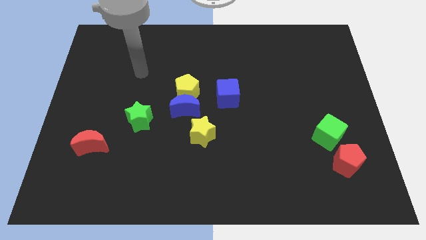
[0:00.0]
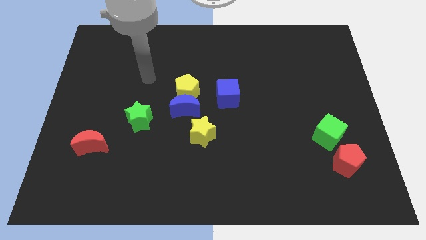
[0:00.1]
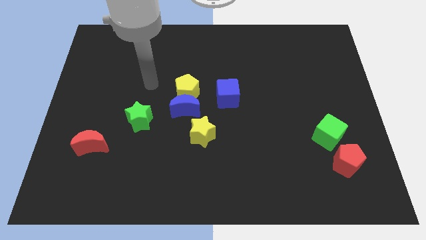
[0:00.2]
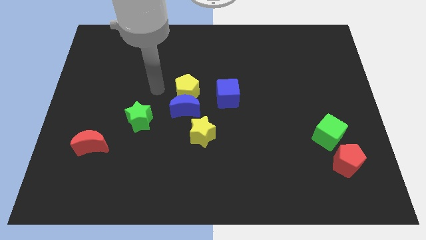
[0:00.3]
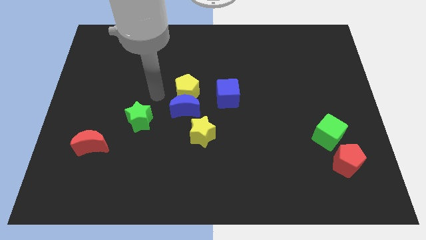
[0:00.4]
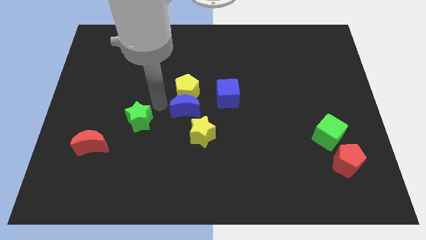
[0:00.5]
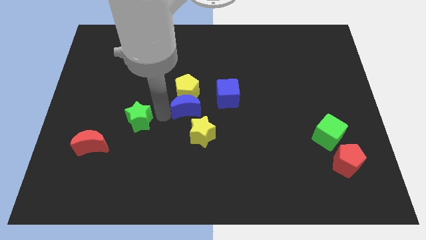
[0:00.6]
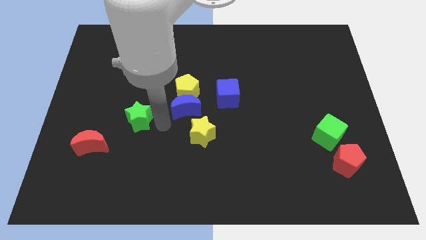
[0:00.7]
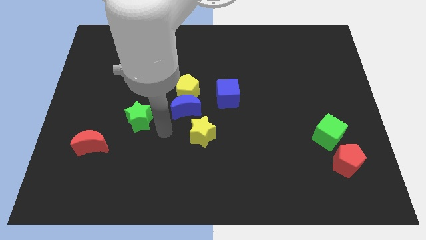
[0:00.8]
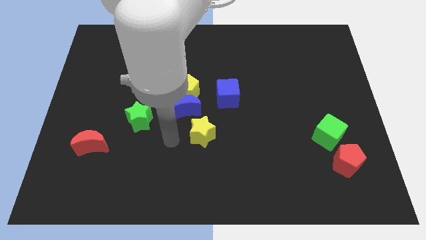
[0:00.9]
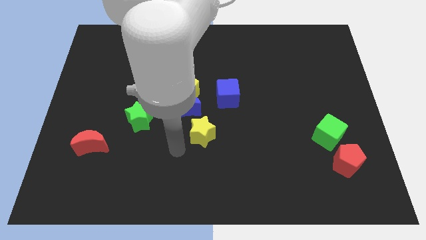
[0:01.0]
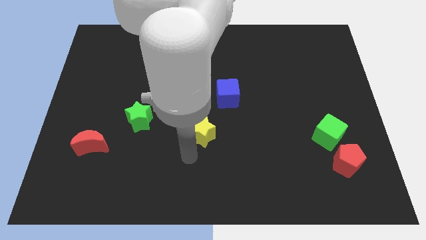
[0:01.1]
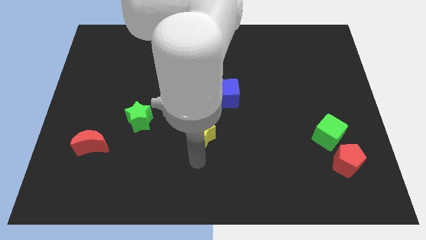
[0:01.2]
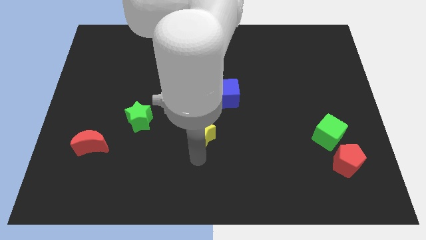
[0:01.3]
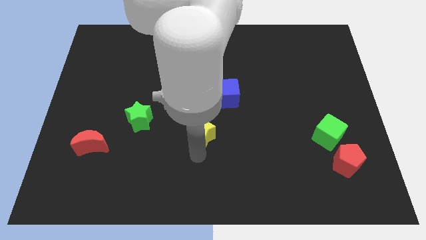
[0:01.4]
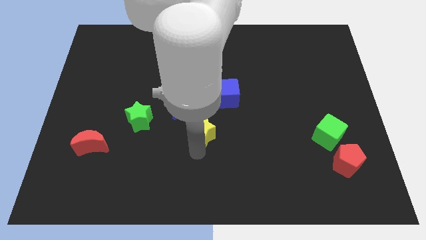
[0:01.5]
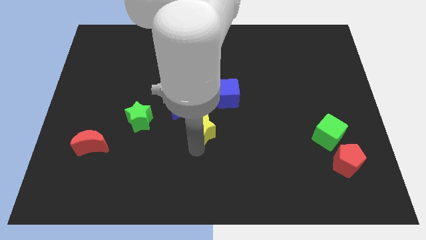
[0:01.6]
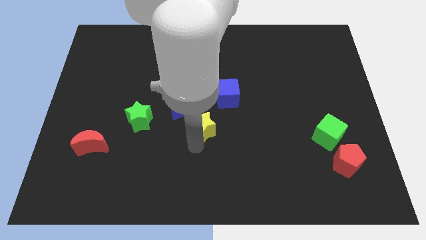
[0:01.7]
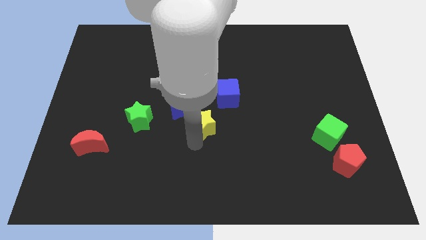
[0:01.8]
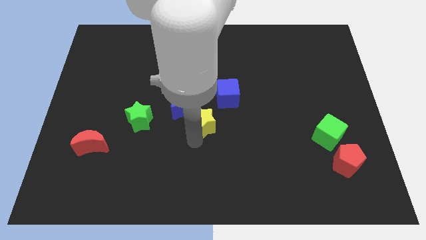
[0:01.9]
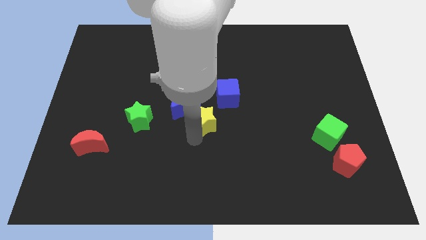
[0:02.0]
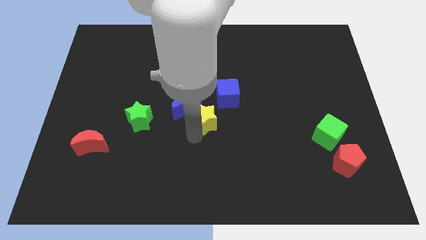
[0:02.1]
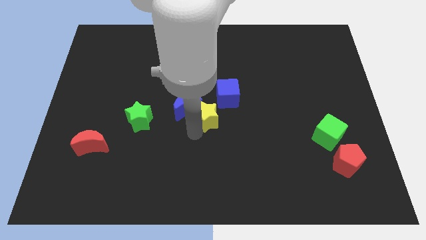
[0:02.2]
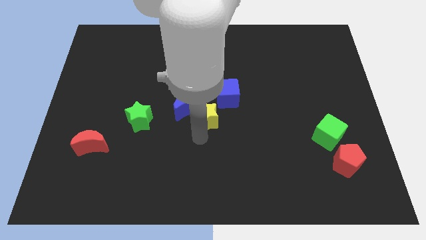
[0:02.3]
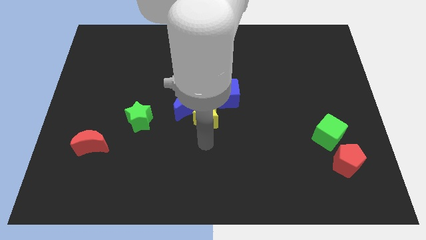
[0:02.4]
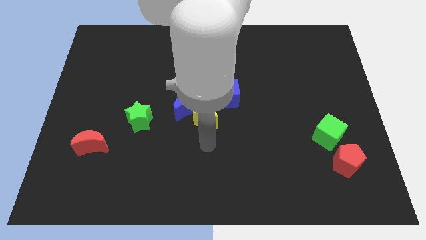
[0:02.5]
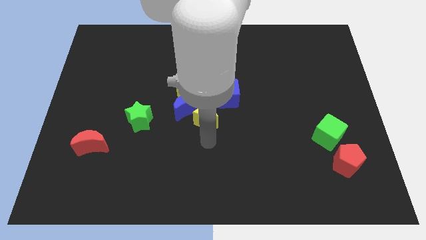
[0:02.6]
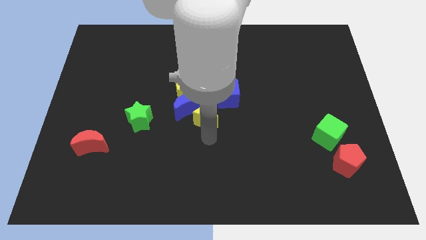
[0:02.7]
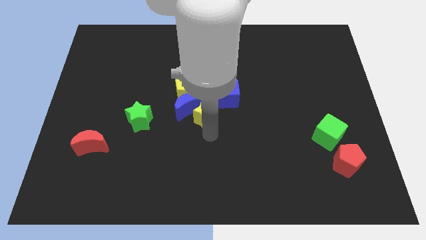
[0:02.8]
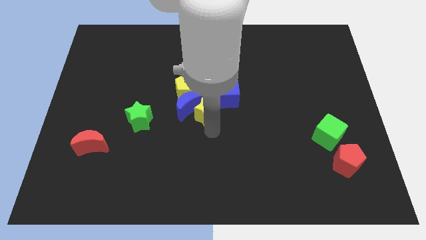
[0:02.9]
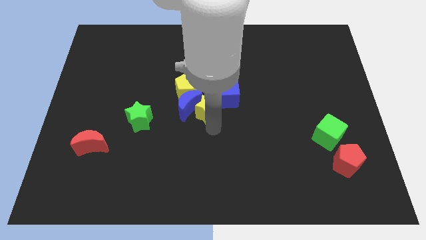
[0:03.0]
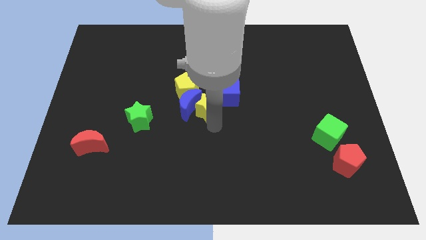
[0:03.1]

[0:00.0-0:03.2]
slide the yellow star upwards a little bit

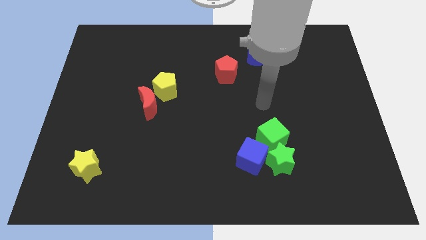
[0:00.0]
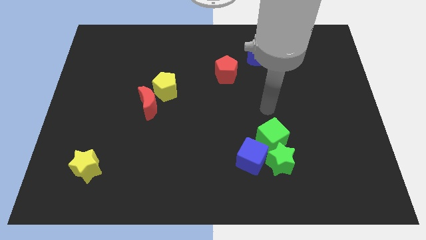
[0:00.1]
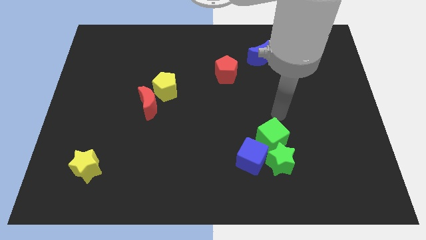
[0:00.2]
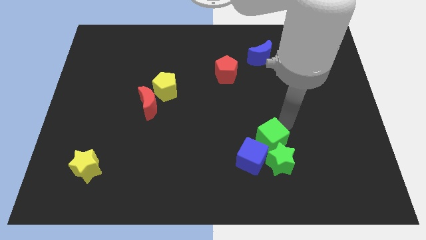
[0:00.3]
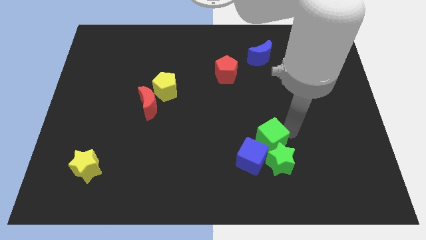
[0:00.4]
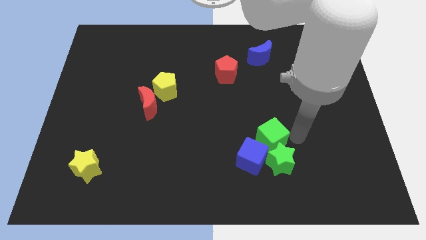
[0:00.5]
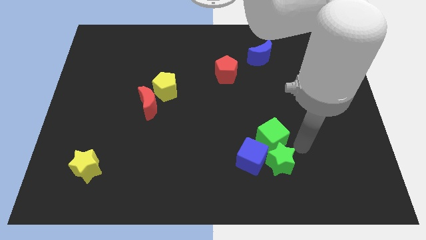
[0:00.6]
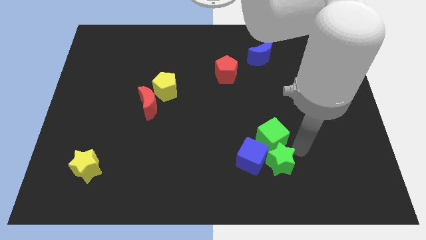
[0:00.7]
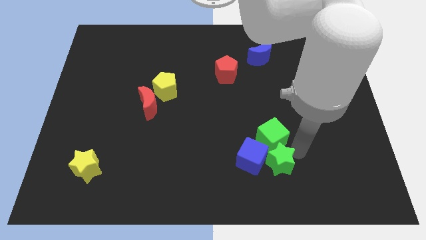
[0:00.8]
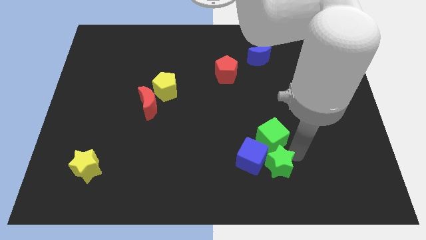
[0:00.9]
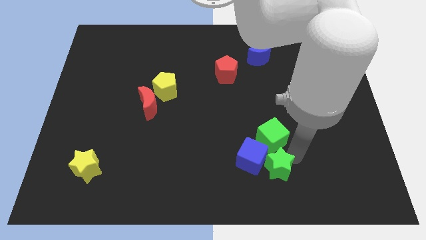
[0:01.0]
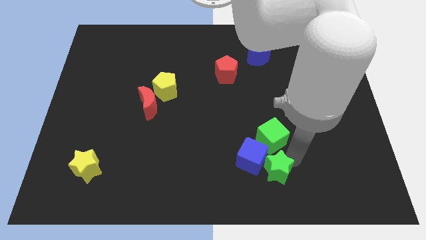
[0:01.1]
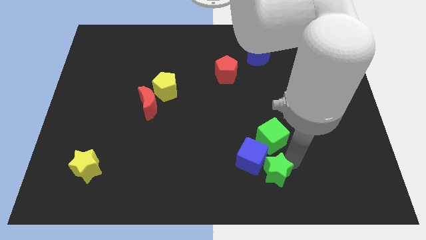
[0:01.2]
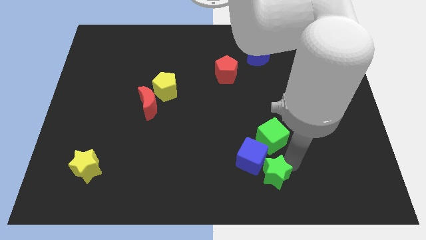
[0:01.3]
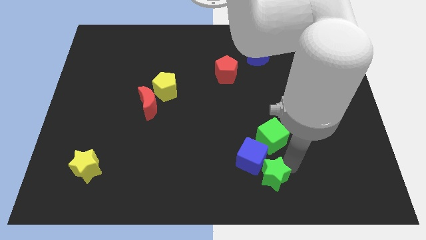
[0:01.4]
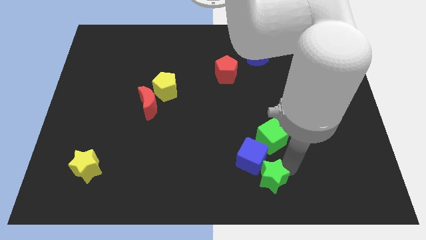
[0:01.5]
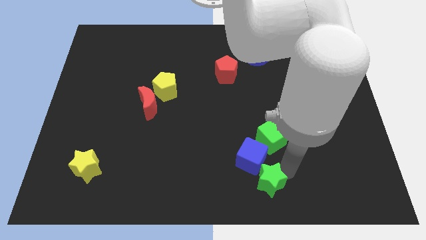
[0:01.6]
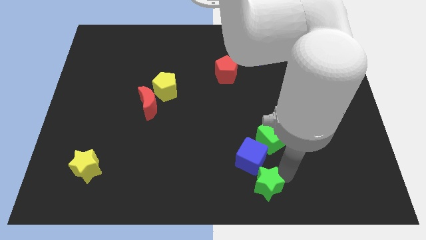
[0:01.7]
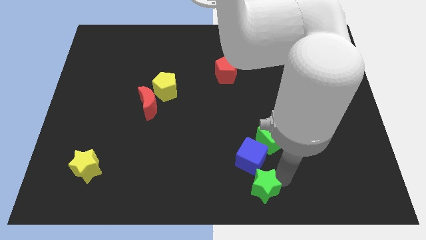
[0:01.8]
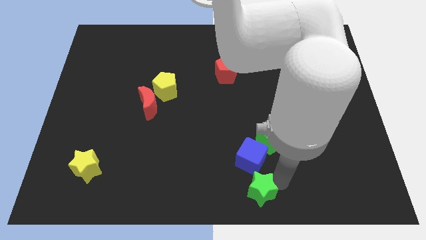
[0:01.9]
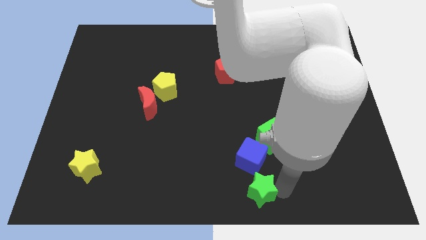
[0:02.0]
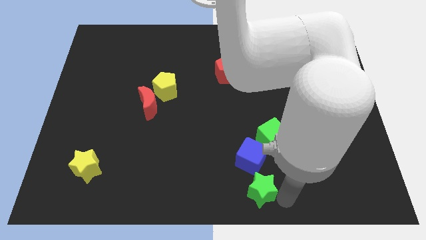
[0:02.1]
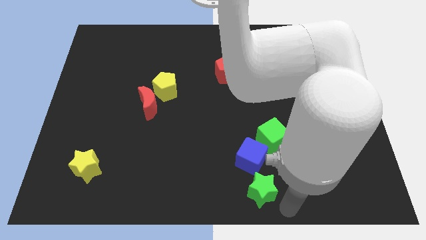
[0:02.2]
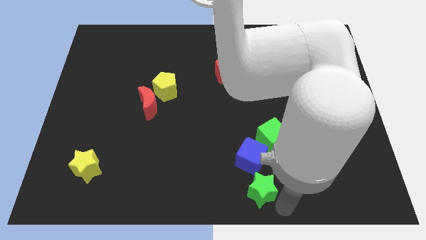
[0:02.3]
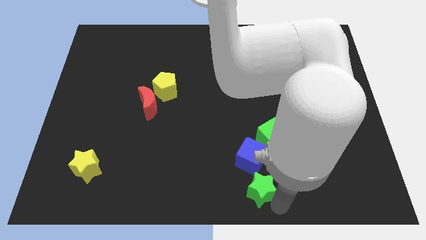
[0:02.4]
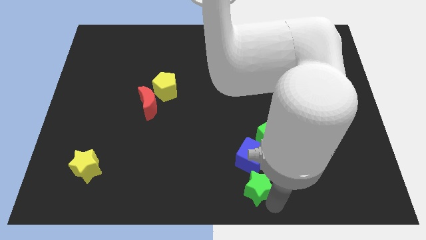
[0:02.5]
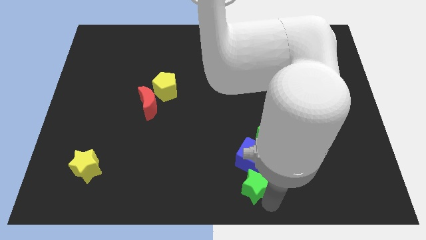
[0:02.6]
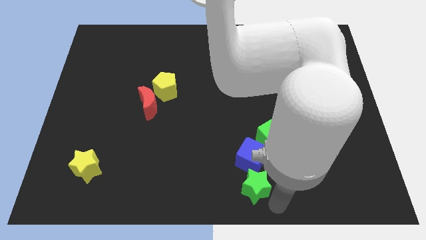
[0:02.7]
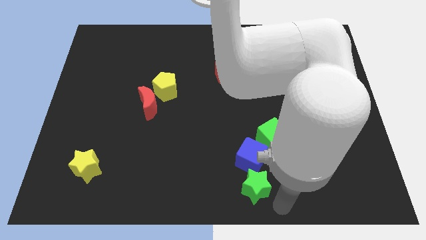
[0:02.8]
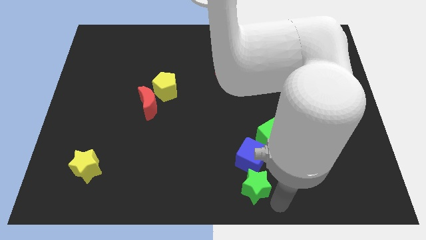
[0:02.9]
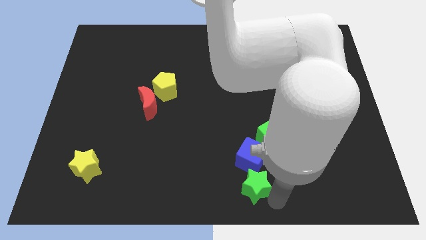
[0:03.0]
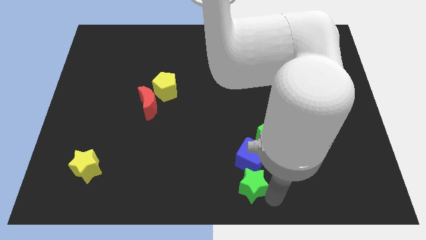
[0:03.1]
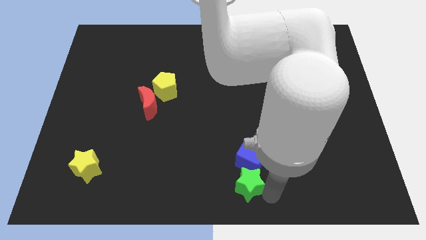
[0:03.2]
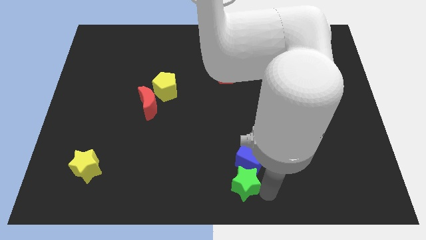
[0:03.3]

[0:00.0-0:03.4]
push the green star left a bit

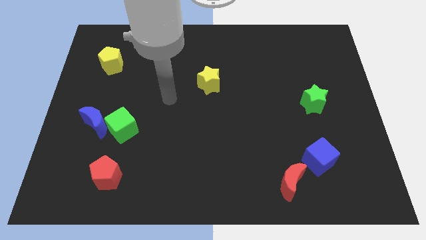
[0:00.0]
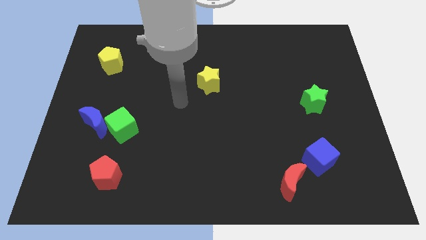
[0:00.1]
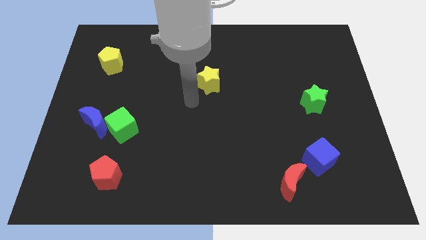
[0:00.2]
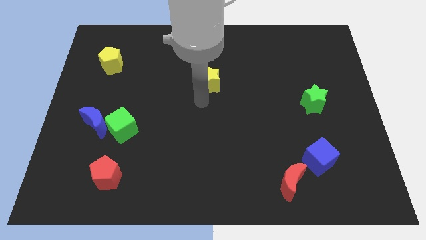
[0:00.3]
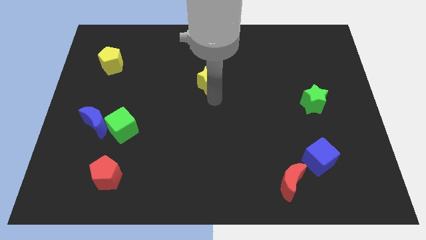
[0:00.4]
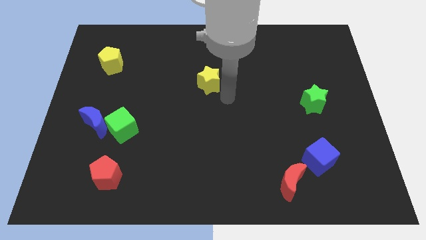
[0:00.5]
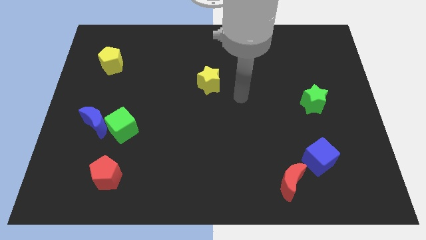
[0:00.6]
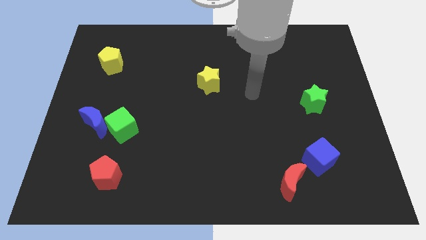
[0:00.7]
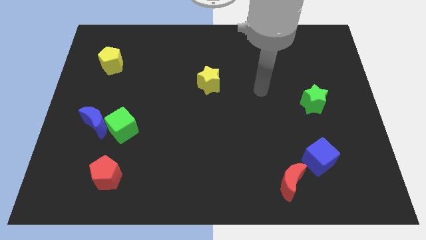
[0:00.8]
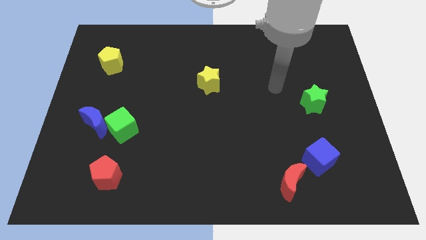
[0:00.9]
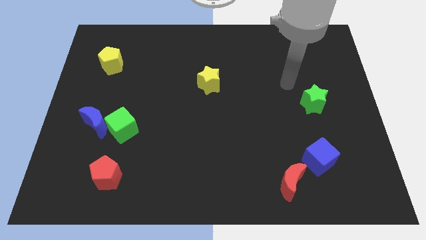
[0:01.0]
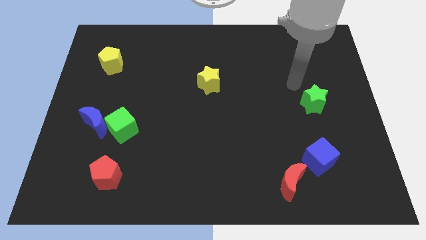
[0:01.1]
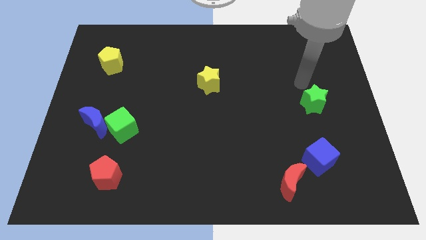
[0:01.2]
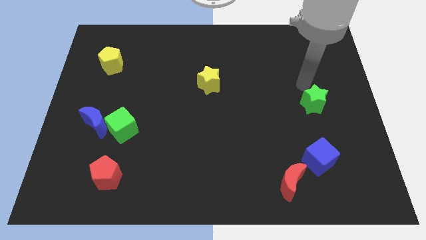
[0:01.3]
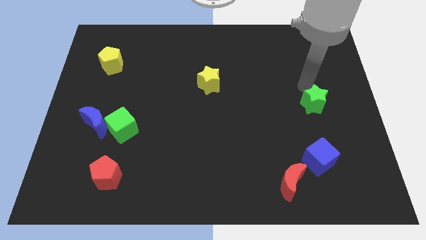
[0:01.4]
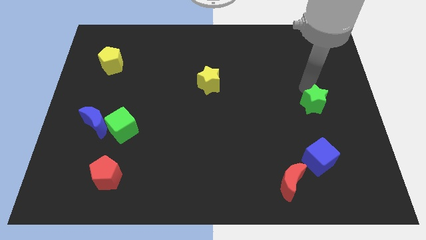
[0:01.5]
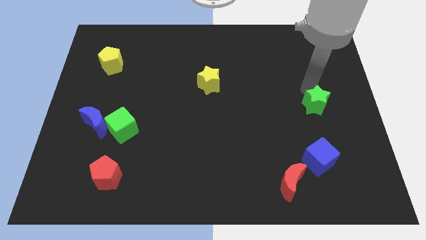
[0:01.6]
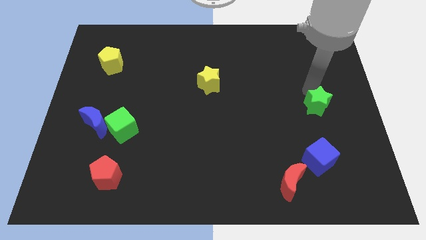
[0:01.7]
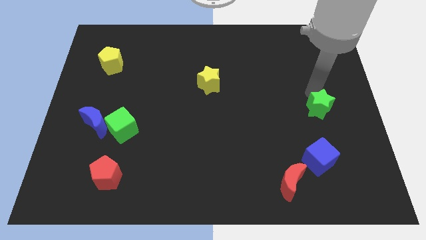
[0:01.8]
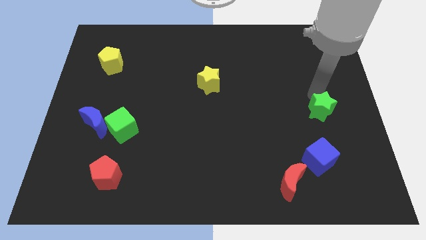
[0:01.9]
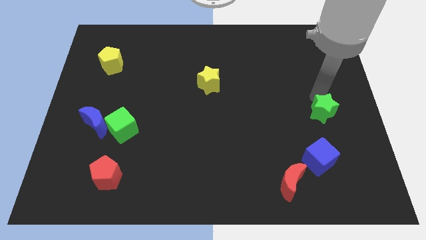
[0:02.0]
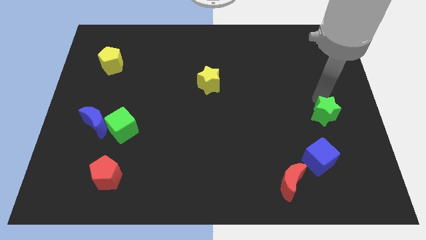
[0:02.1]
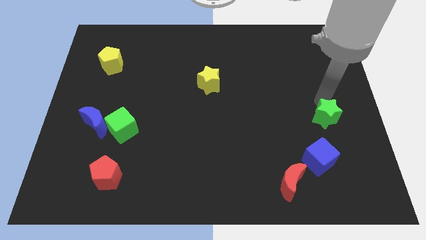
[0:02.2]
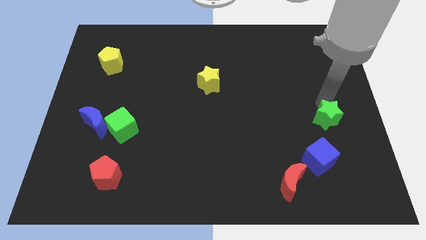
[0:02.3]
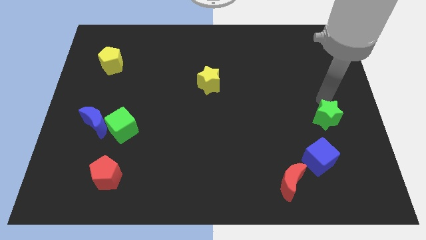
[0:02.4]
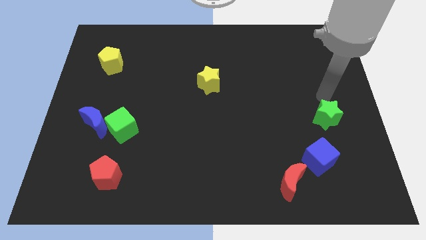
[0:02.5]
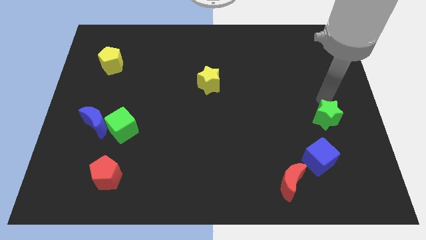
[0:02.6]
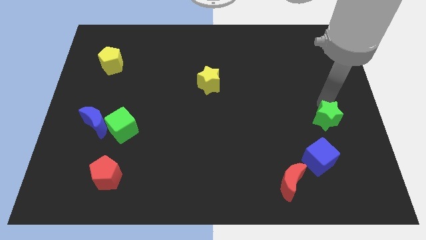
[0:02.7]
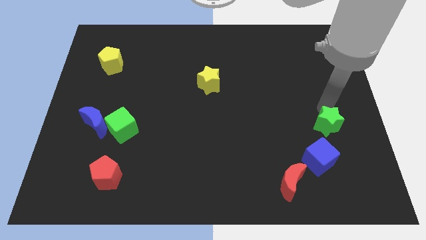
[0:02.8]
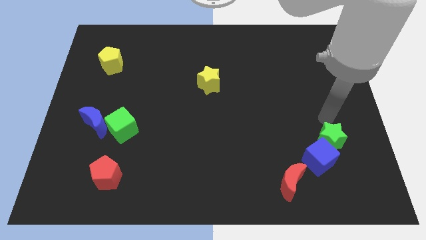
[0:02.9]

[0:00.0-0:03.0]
push the green star slightly down
